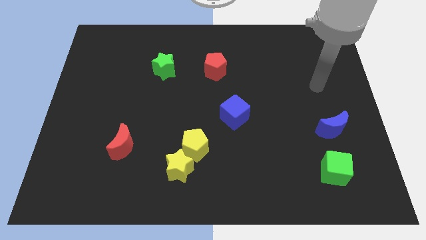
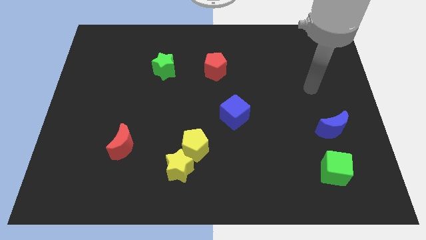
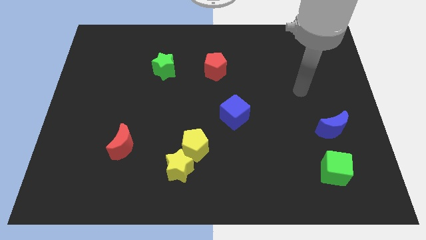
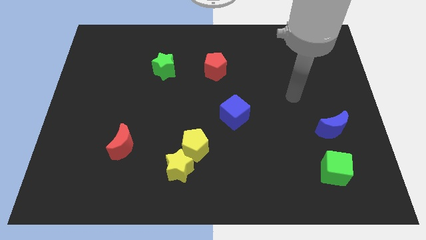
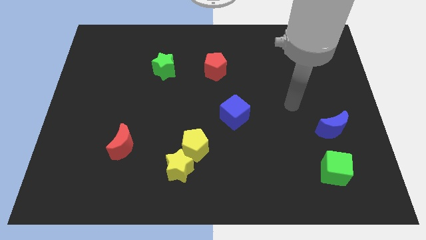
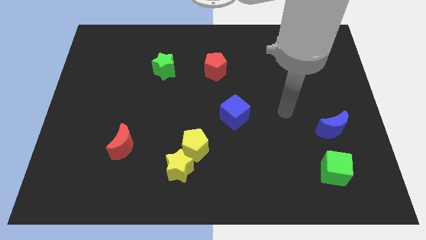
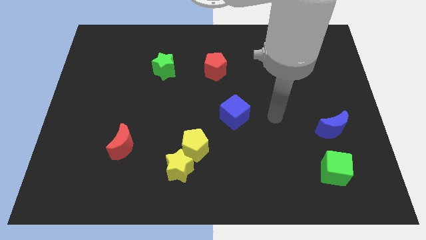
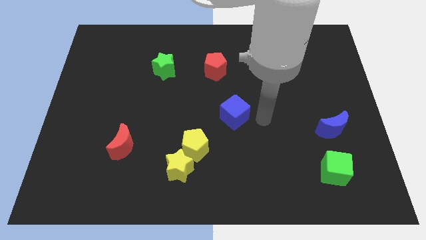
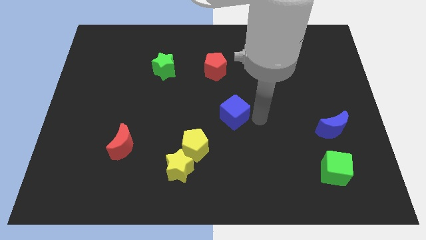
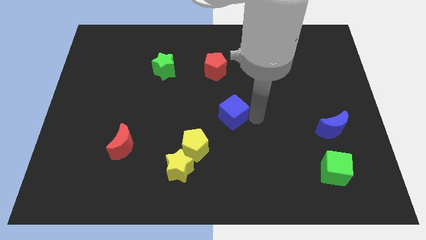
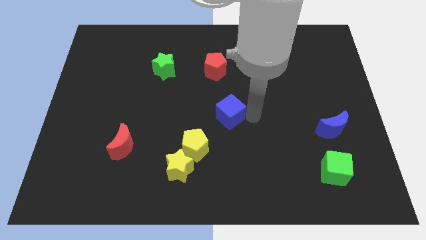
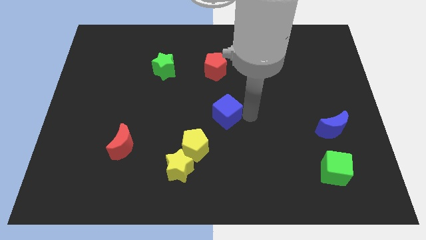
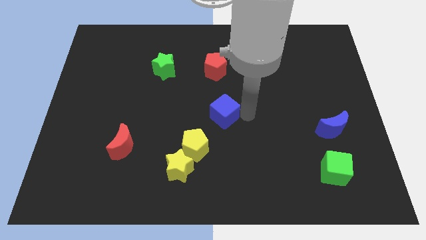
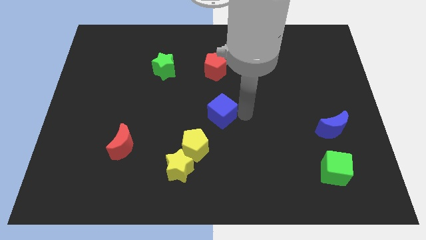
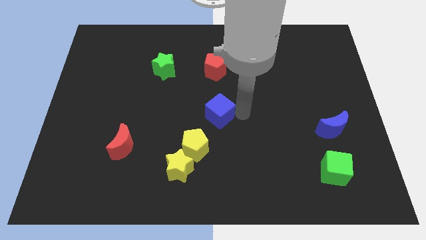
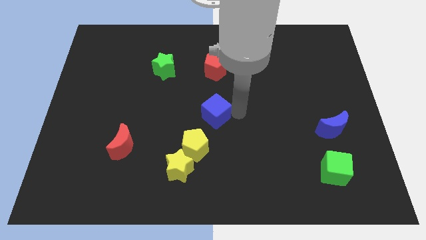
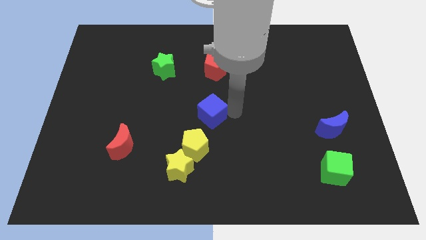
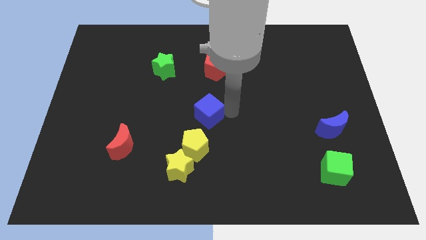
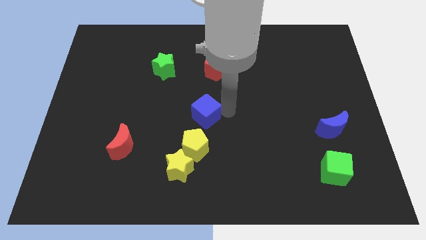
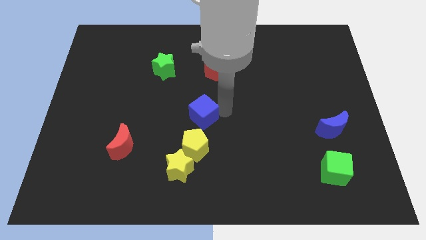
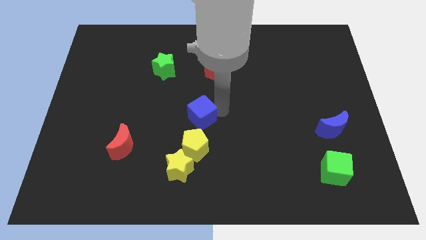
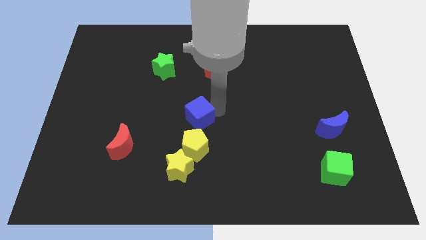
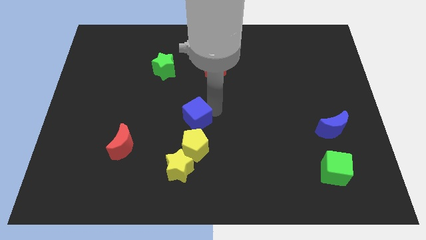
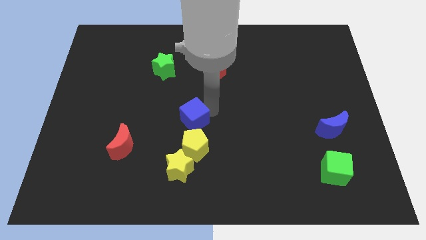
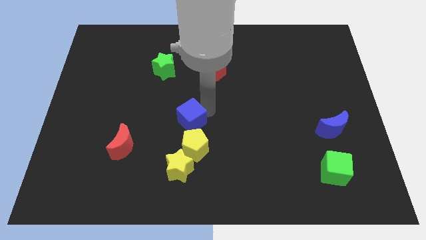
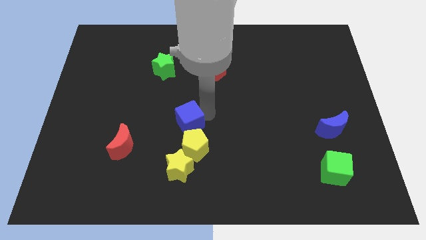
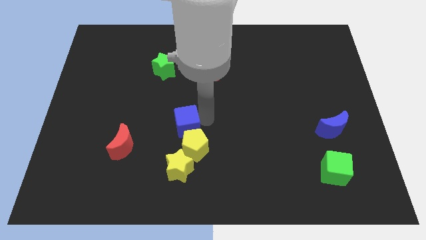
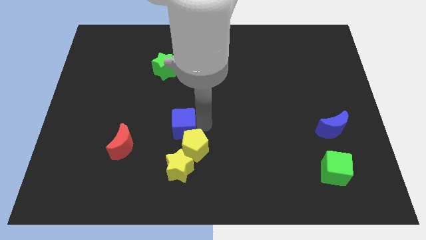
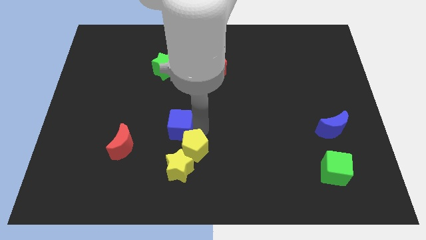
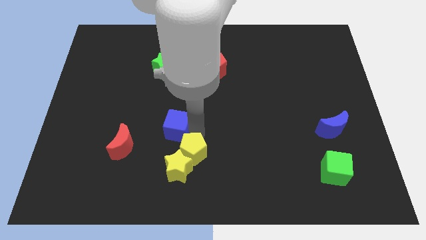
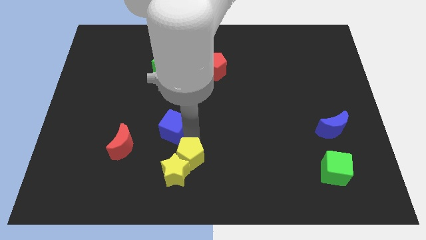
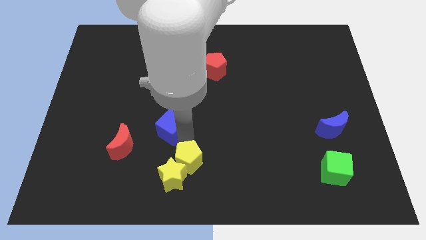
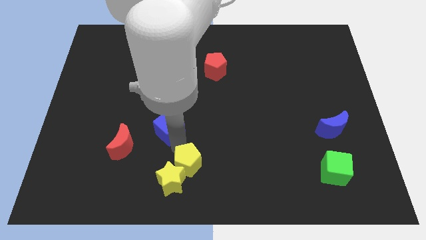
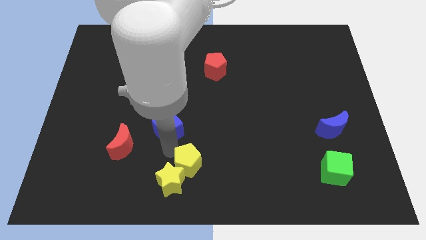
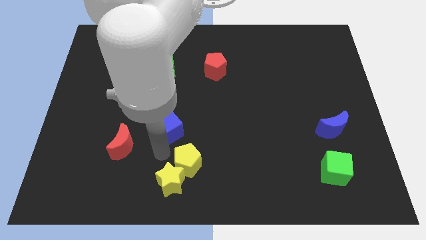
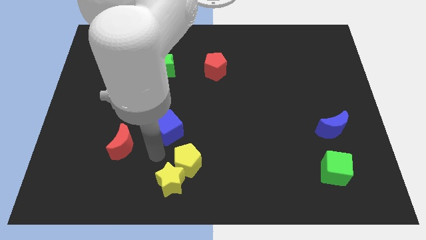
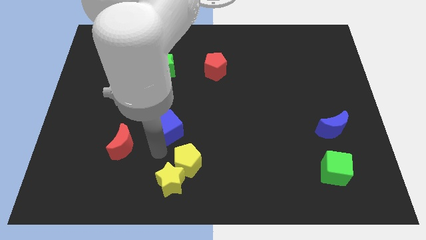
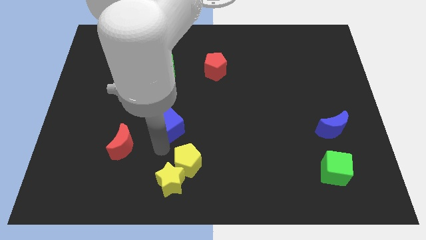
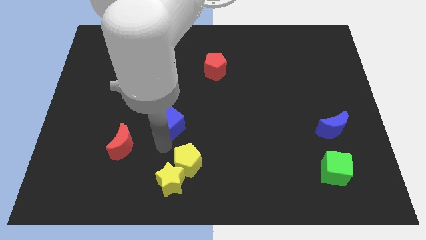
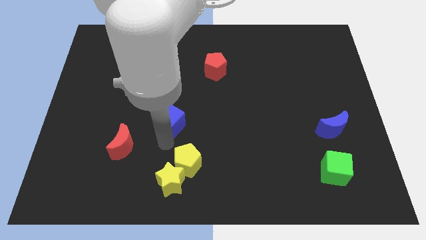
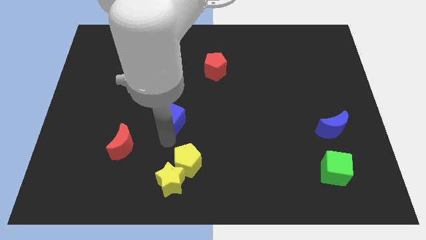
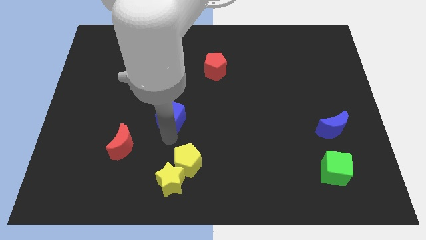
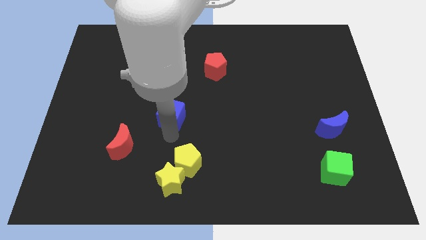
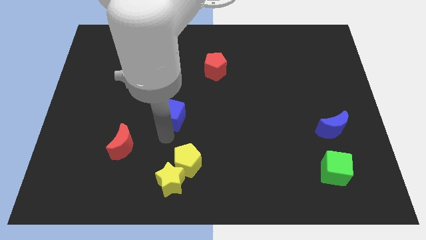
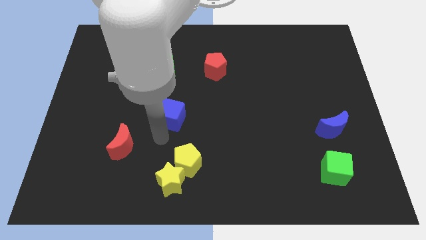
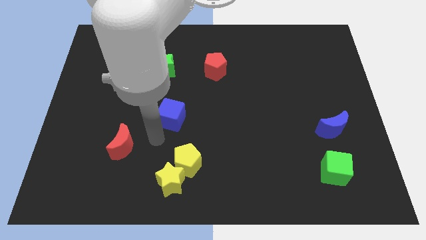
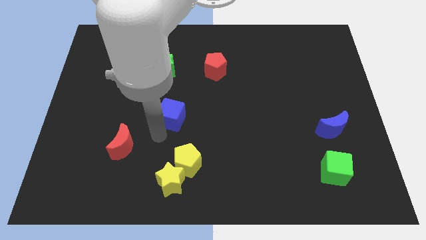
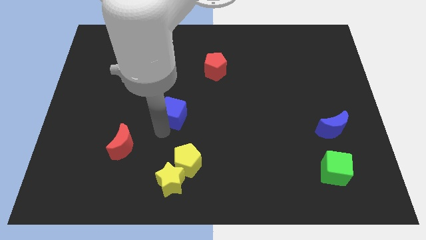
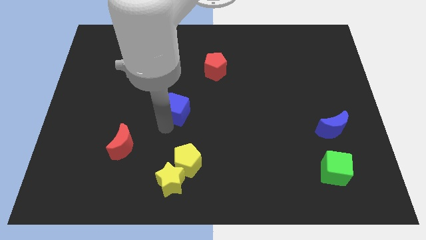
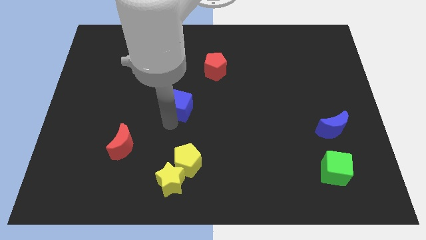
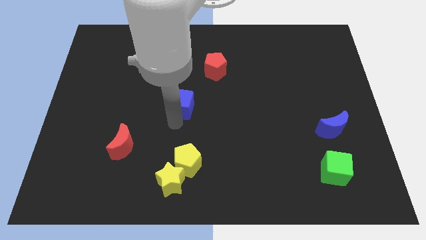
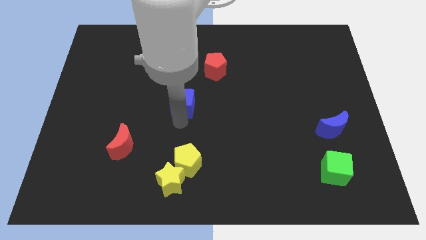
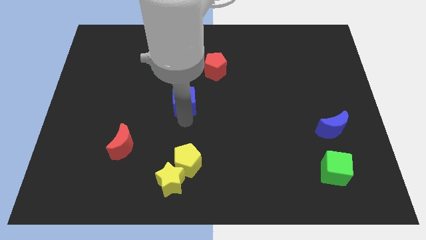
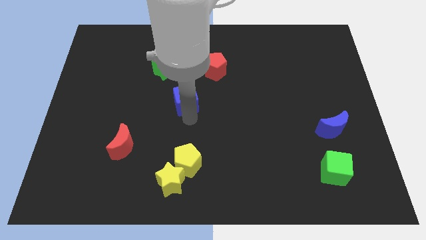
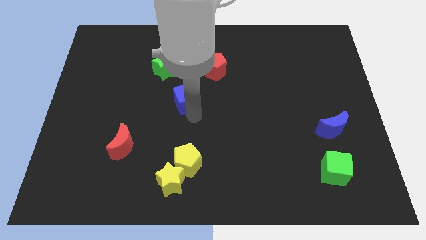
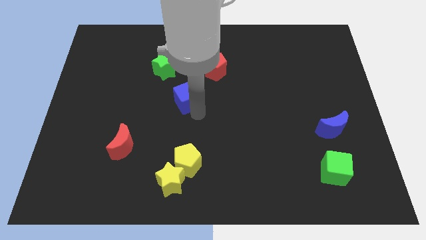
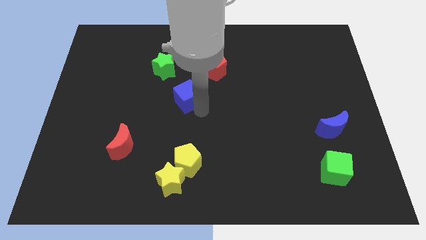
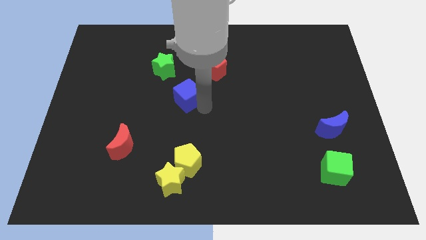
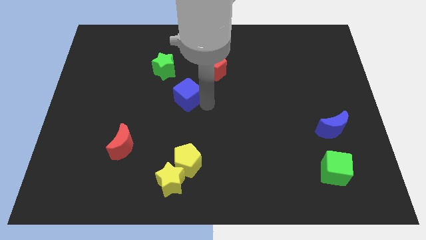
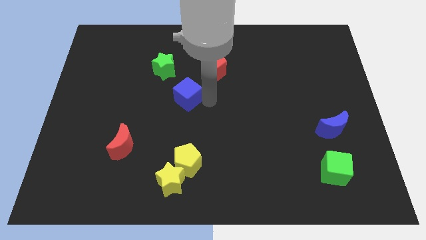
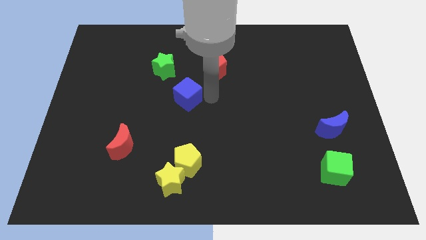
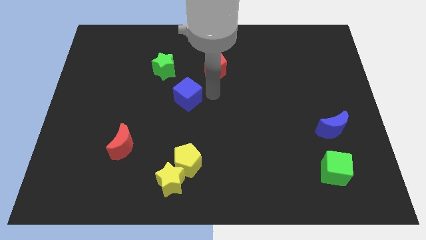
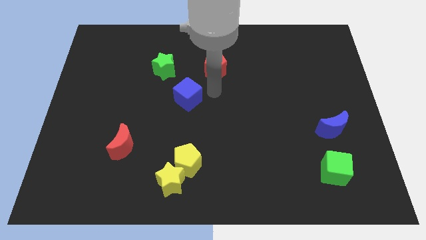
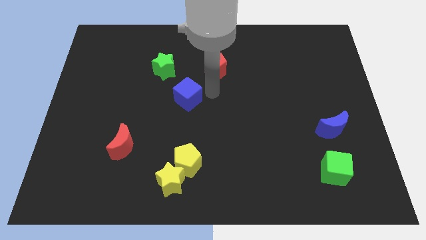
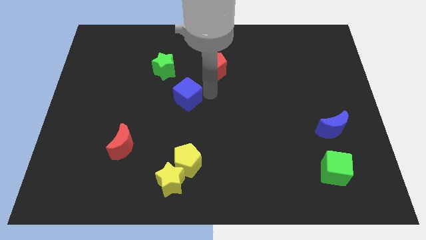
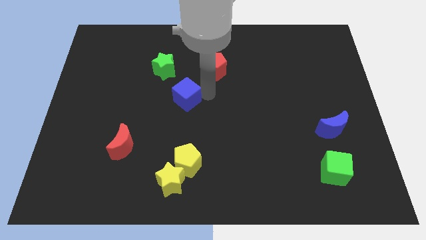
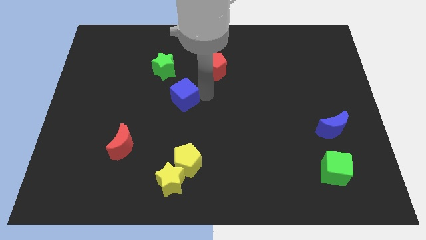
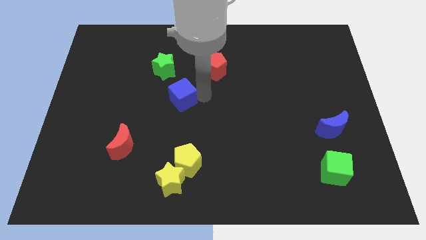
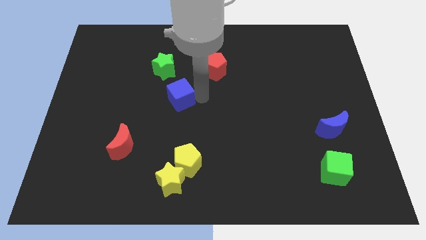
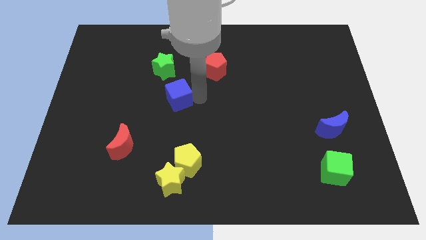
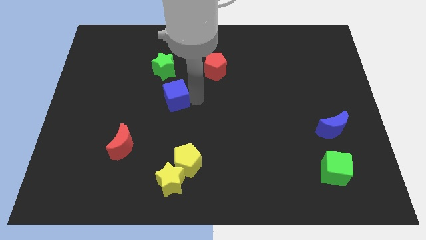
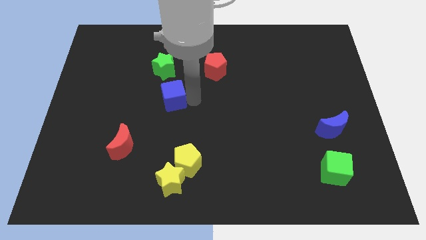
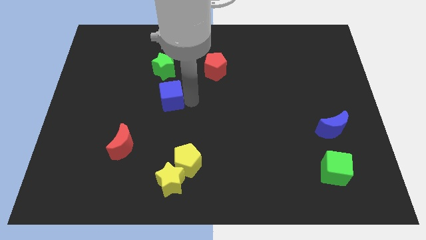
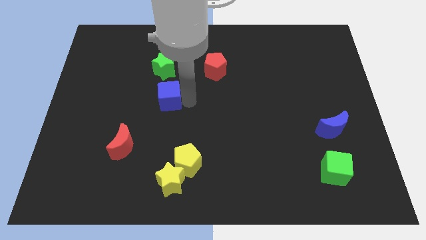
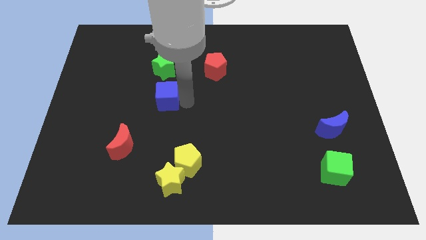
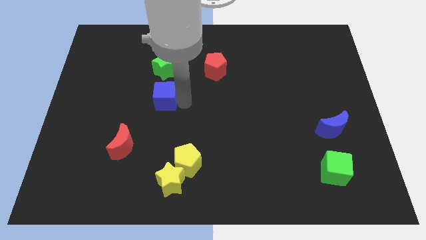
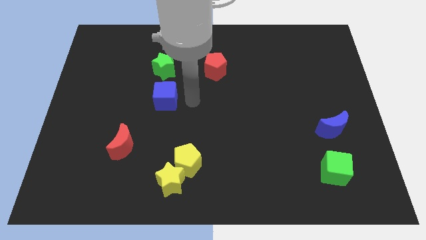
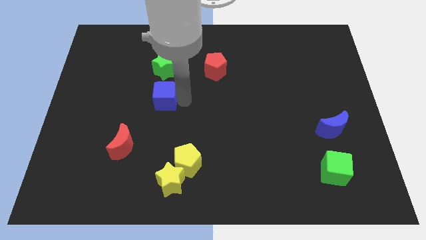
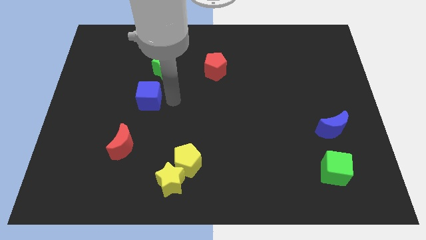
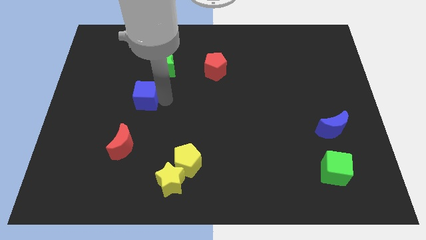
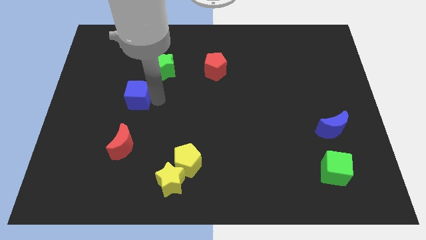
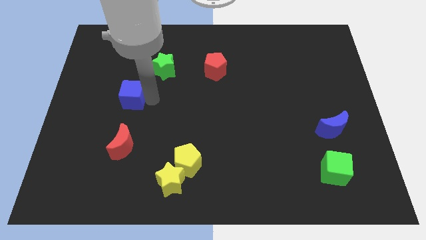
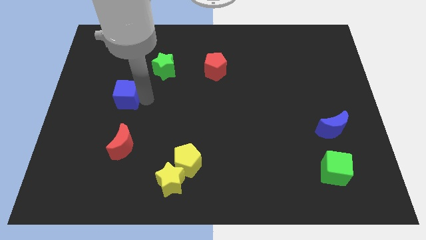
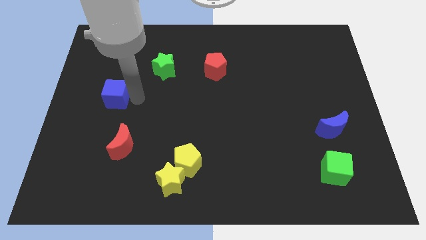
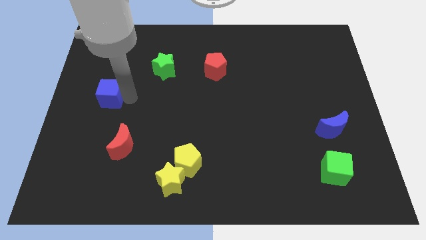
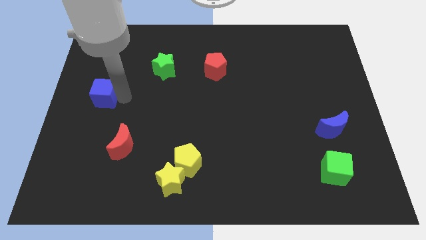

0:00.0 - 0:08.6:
put the blue cube to the left side
